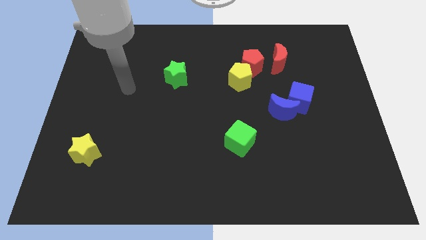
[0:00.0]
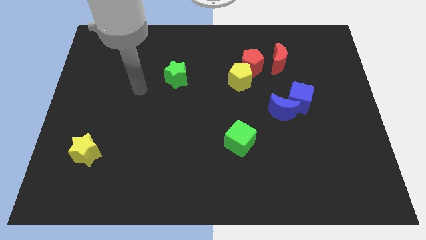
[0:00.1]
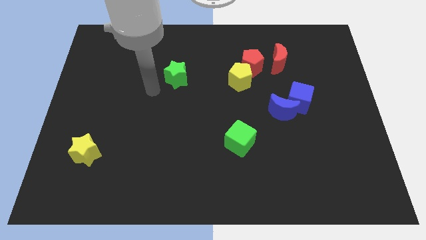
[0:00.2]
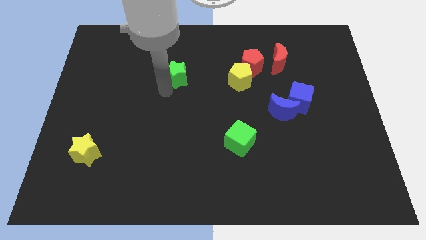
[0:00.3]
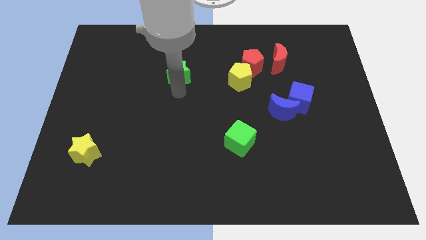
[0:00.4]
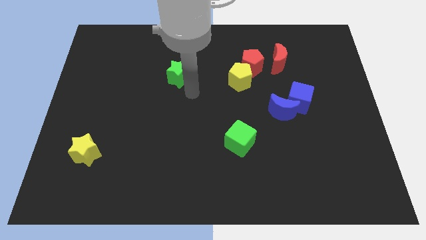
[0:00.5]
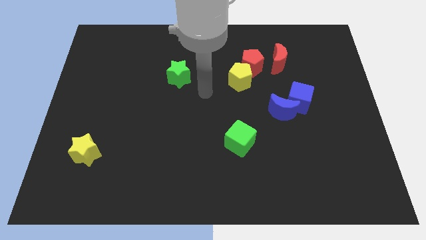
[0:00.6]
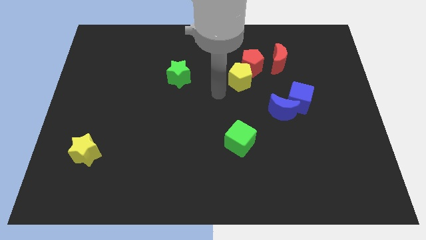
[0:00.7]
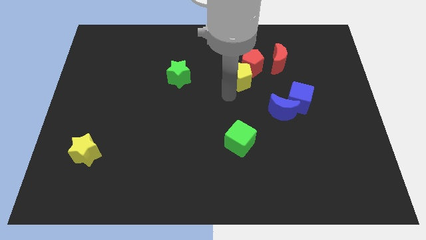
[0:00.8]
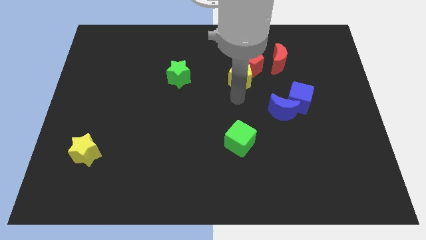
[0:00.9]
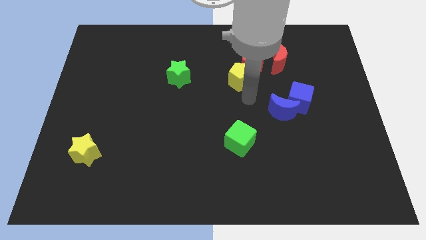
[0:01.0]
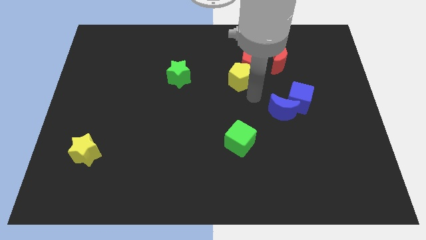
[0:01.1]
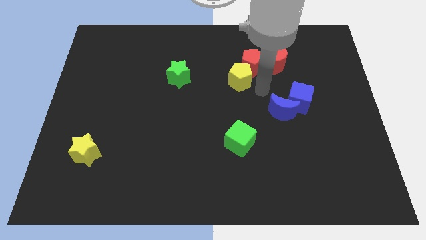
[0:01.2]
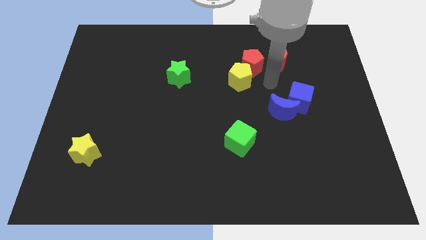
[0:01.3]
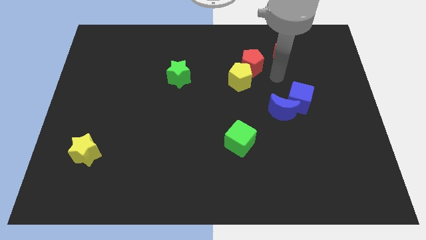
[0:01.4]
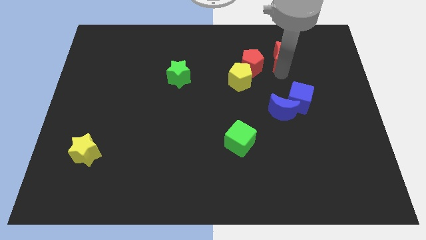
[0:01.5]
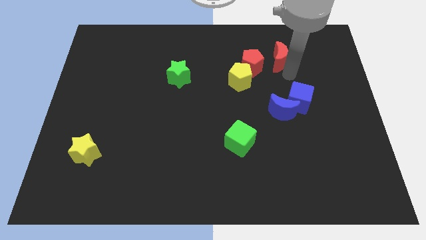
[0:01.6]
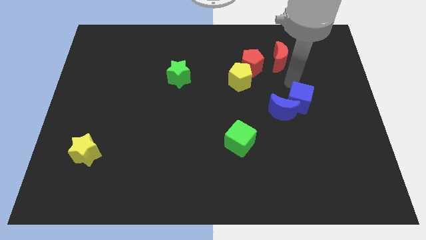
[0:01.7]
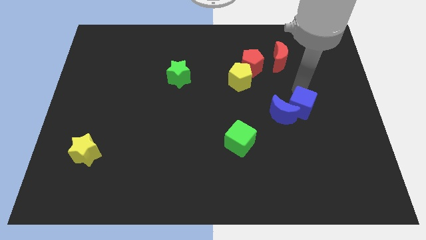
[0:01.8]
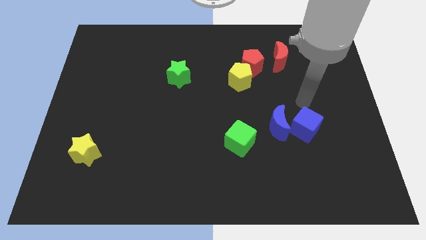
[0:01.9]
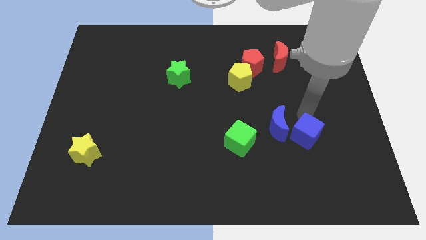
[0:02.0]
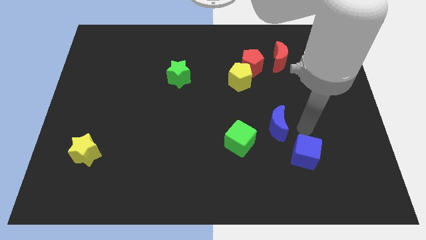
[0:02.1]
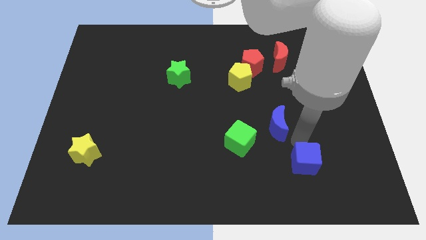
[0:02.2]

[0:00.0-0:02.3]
pull the blue moon apart from the blue cube

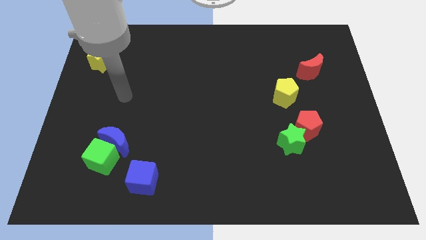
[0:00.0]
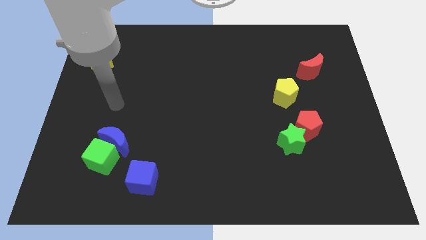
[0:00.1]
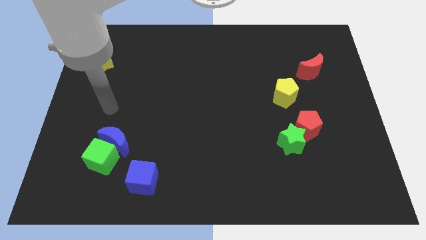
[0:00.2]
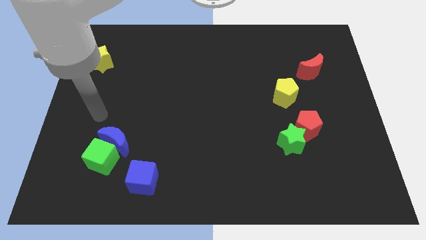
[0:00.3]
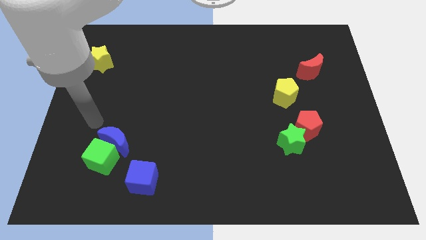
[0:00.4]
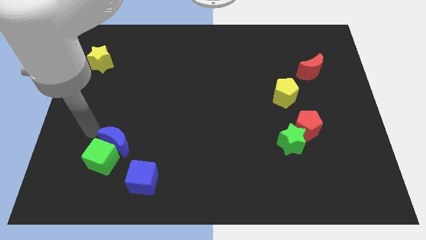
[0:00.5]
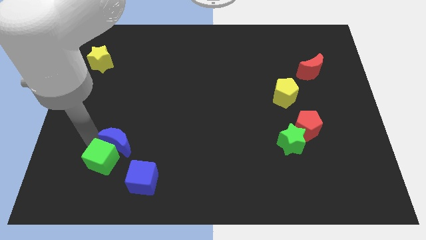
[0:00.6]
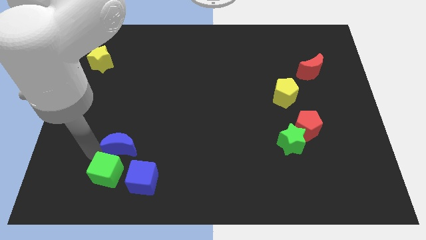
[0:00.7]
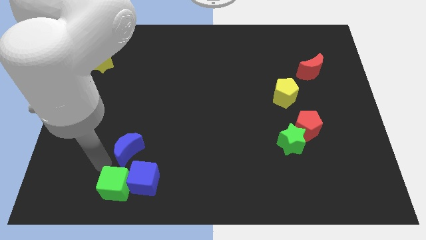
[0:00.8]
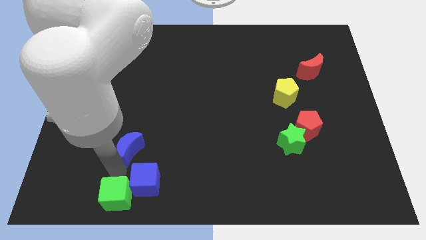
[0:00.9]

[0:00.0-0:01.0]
move the blue moon away from the green cube

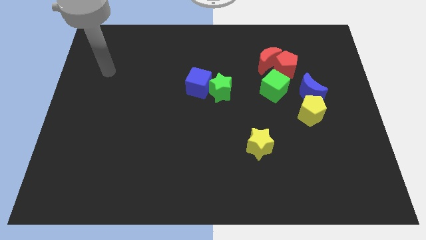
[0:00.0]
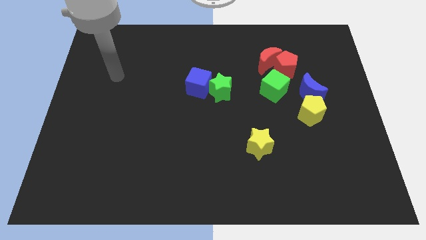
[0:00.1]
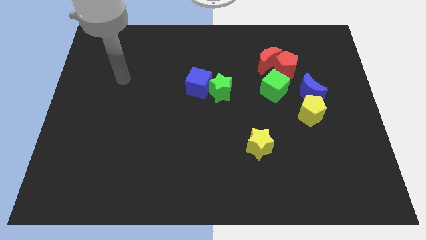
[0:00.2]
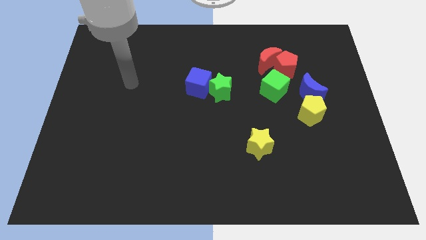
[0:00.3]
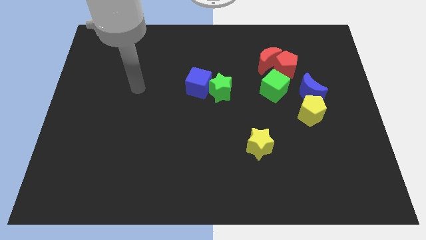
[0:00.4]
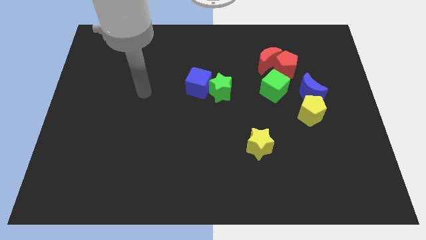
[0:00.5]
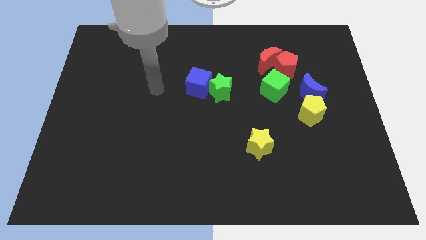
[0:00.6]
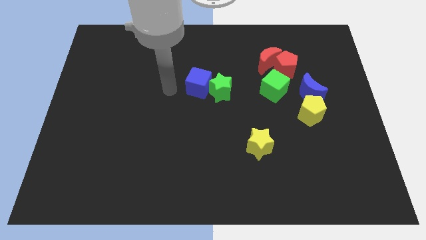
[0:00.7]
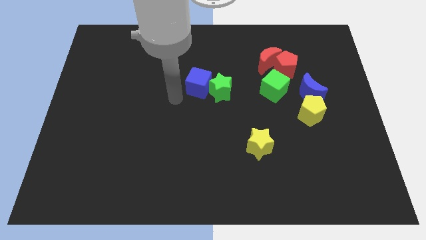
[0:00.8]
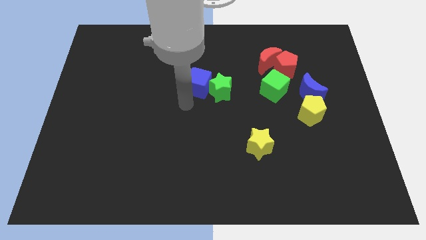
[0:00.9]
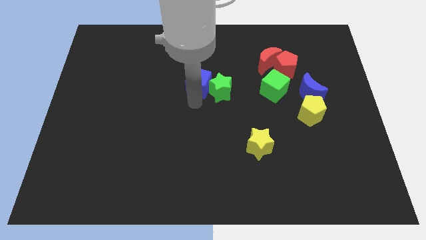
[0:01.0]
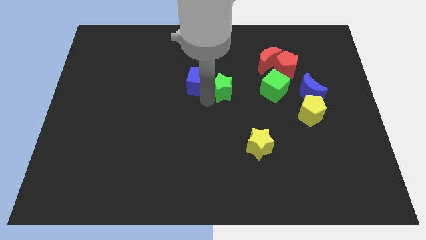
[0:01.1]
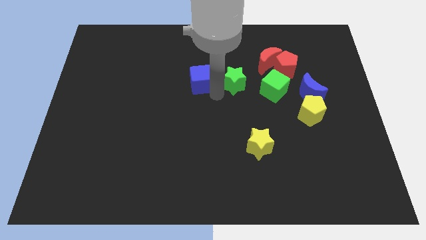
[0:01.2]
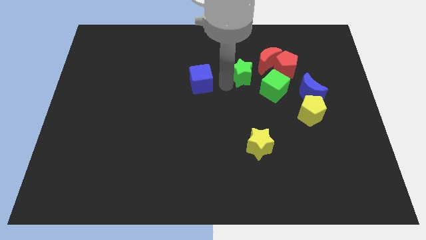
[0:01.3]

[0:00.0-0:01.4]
pull the blue cube apart from the green star

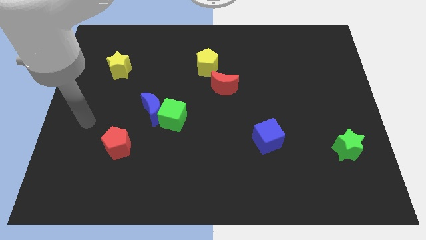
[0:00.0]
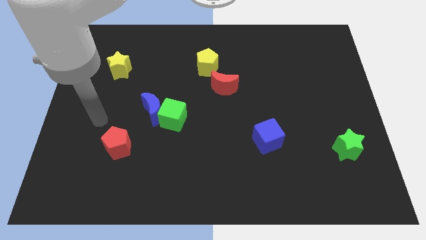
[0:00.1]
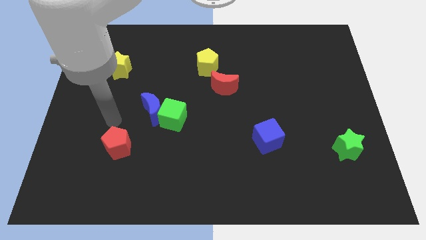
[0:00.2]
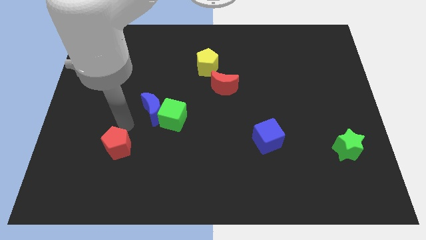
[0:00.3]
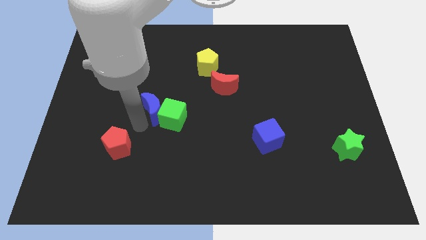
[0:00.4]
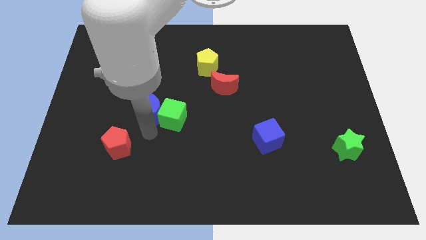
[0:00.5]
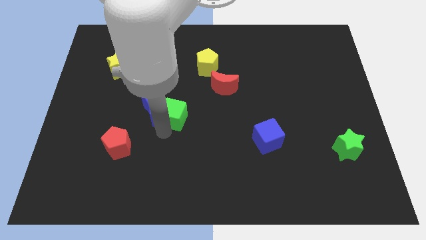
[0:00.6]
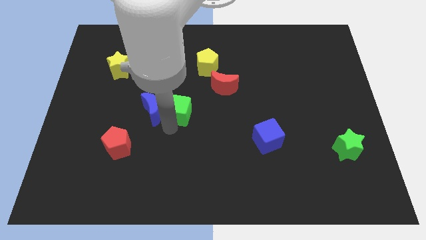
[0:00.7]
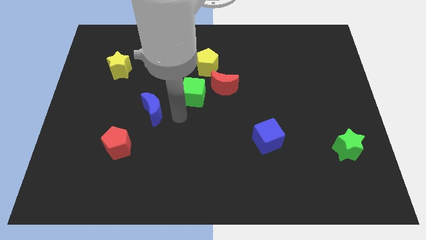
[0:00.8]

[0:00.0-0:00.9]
pull the blue moon apart from the green cube

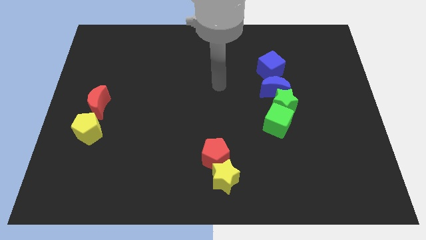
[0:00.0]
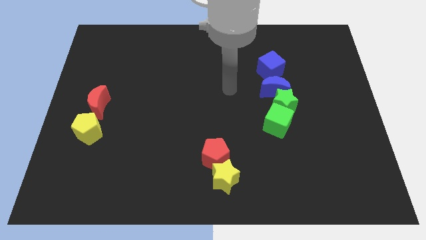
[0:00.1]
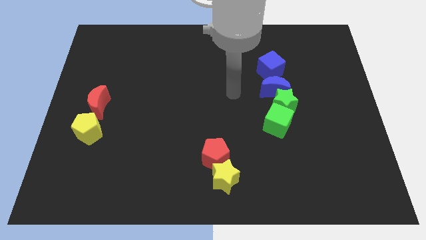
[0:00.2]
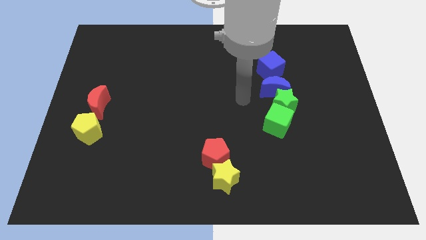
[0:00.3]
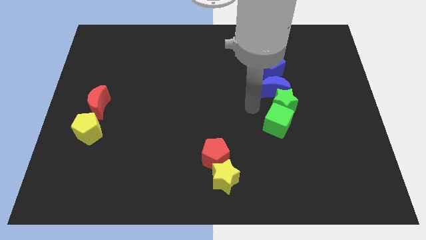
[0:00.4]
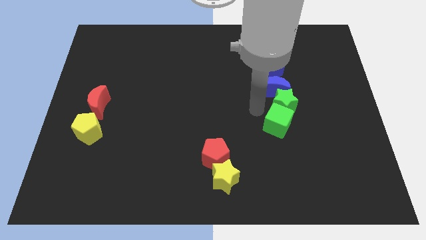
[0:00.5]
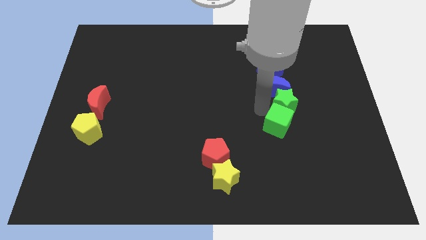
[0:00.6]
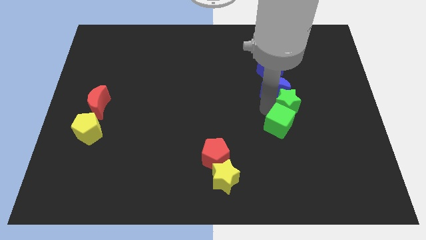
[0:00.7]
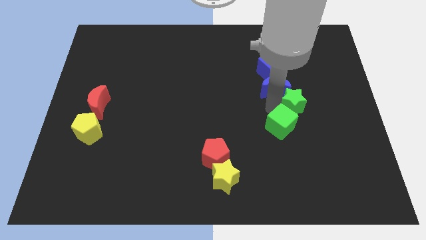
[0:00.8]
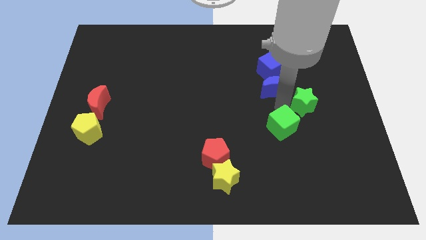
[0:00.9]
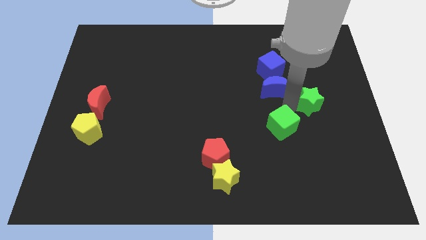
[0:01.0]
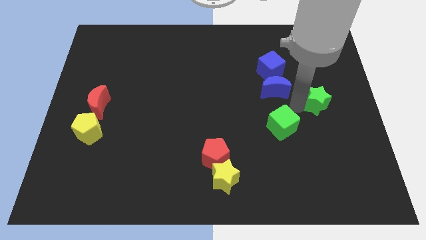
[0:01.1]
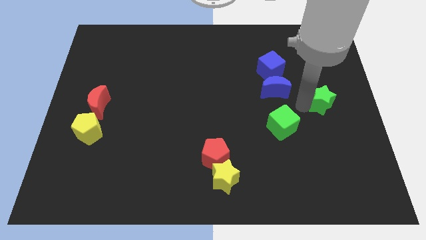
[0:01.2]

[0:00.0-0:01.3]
pull the green star apart from the blue moon and green cube

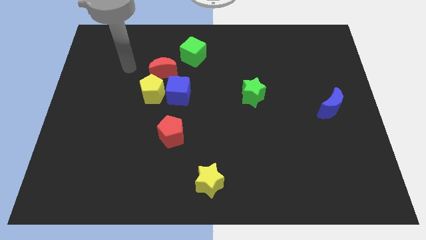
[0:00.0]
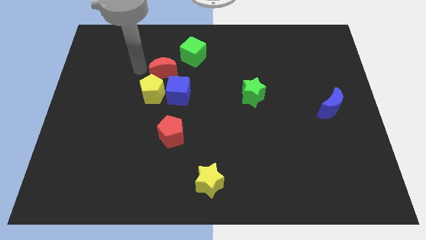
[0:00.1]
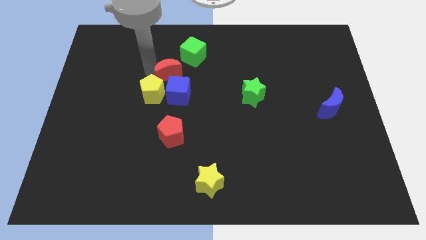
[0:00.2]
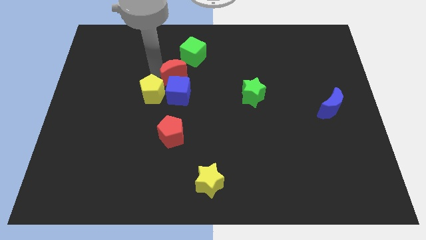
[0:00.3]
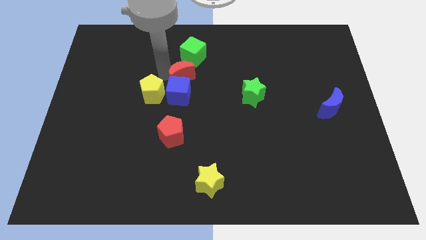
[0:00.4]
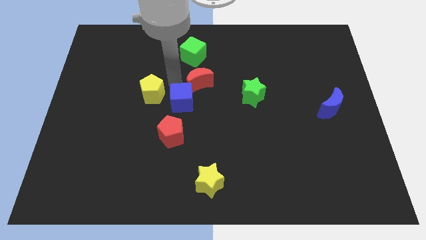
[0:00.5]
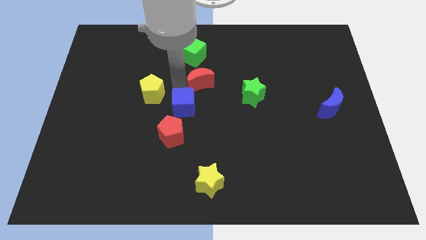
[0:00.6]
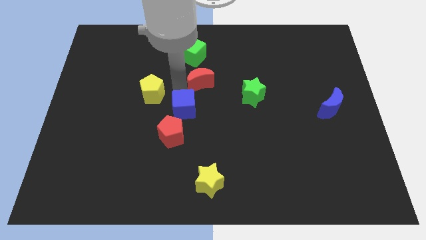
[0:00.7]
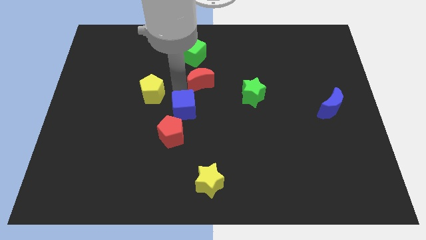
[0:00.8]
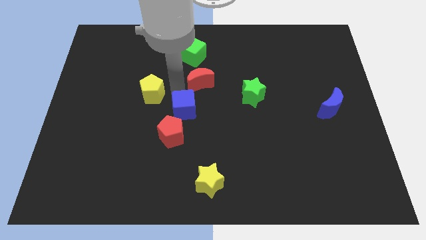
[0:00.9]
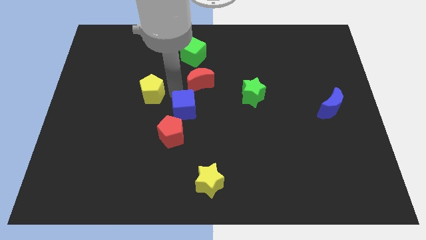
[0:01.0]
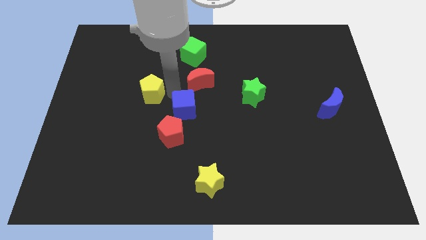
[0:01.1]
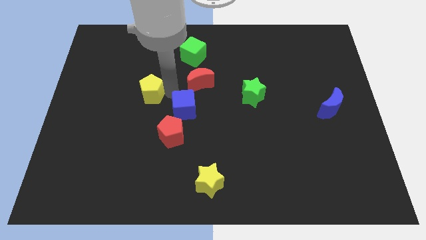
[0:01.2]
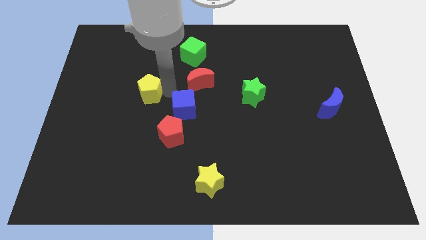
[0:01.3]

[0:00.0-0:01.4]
move the yellow pentagon away from the blue cube and red moon

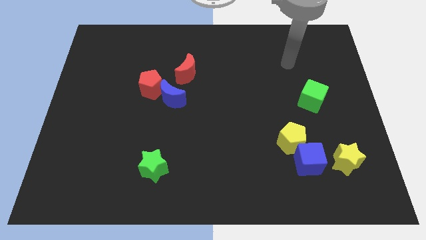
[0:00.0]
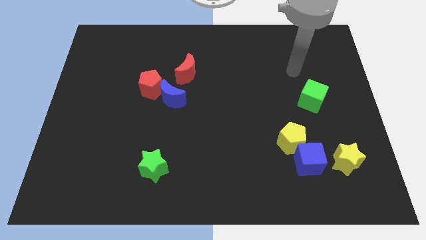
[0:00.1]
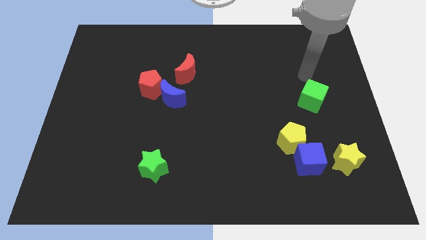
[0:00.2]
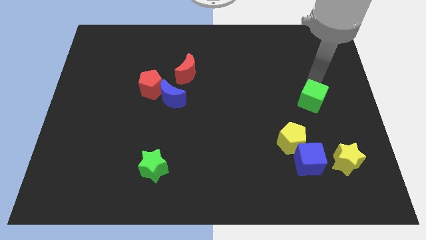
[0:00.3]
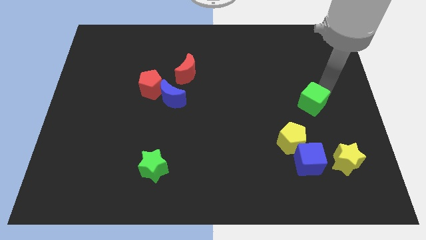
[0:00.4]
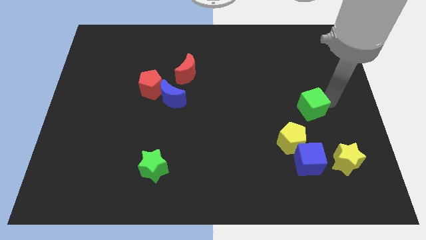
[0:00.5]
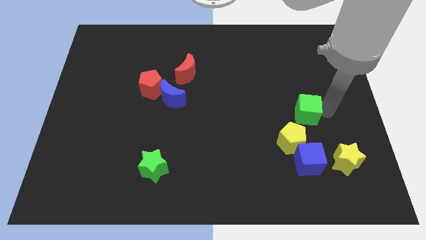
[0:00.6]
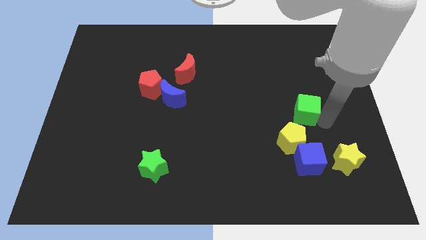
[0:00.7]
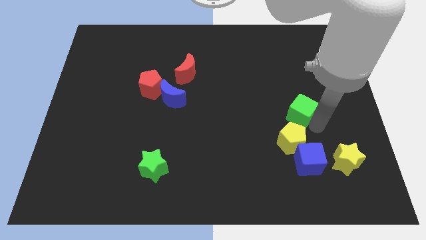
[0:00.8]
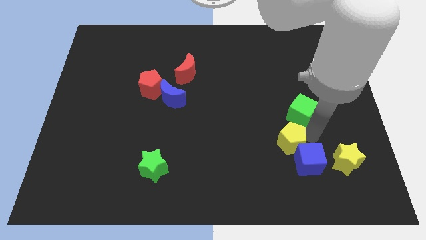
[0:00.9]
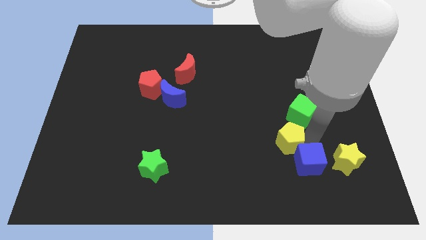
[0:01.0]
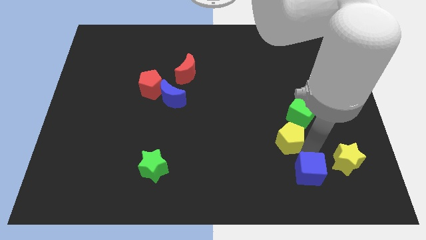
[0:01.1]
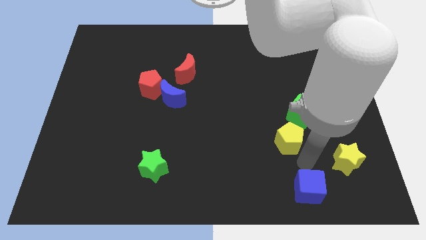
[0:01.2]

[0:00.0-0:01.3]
separate the yellow pentagon from the blue cube
